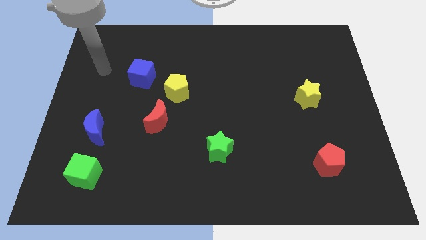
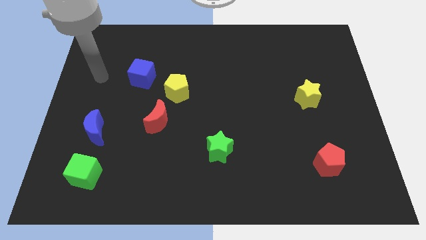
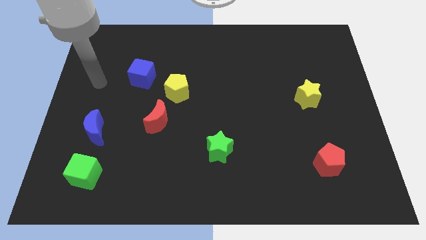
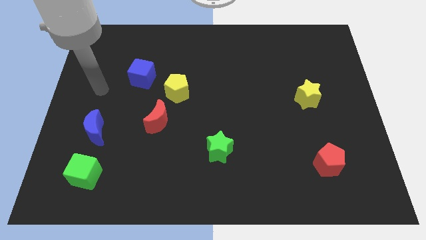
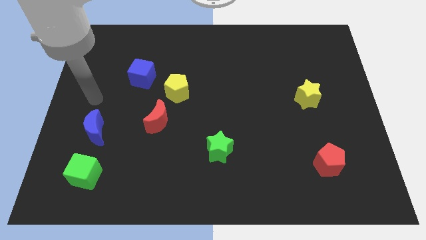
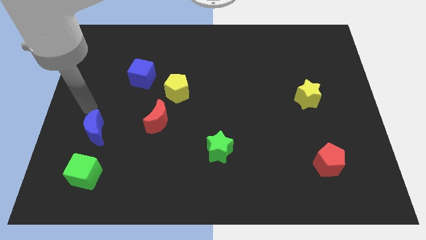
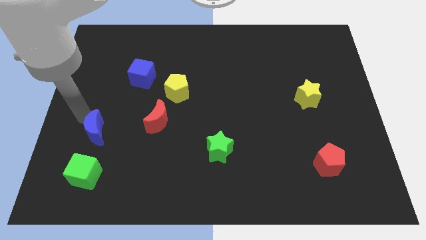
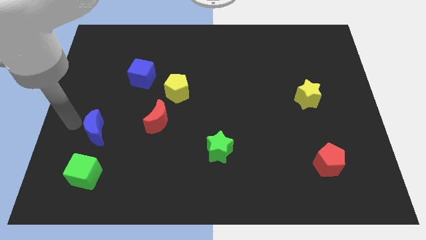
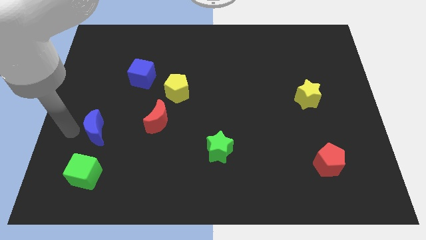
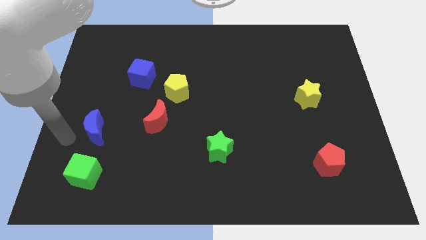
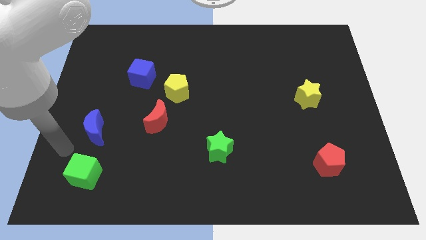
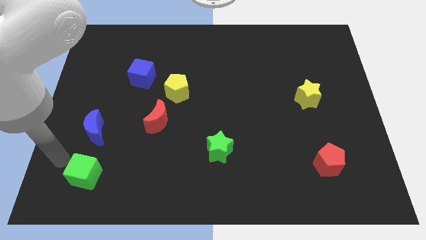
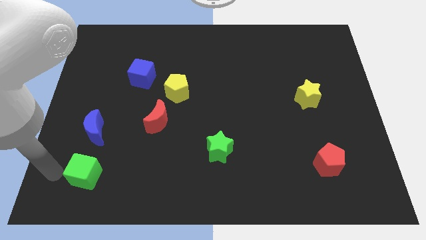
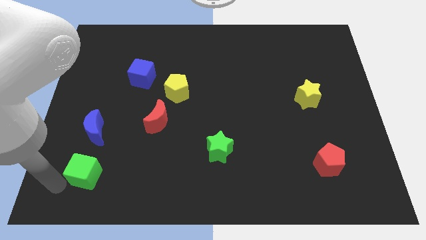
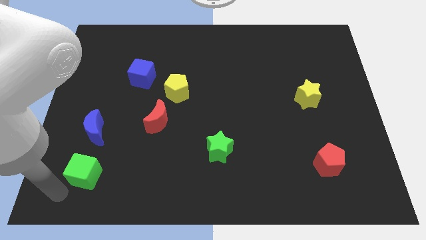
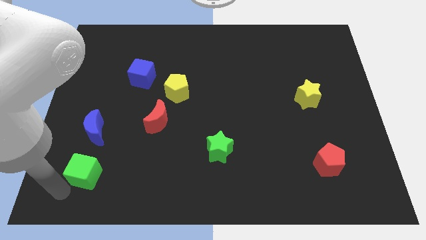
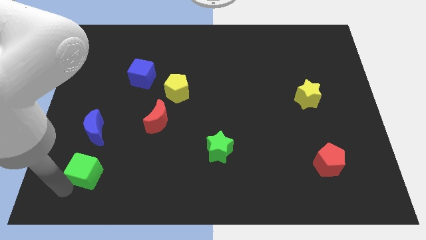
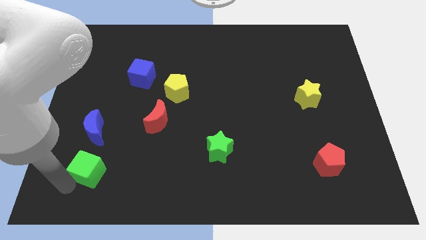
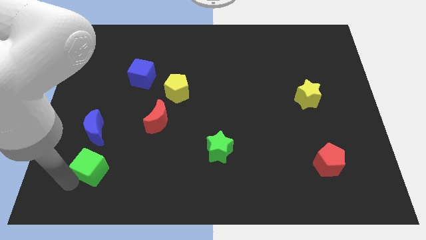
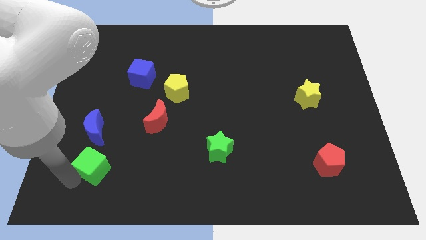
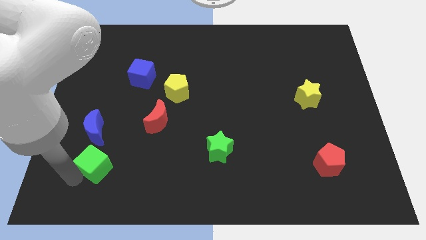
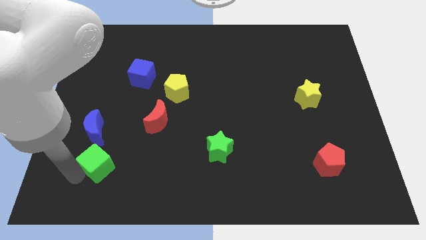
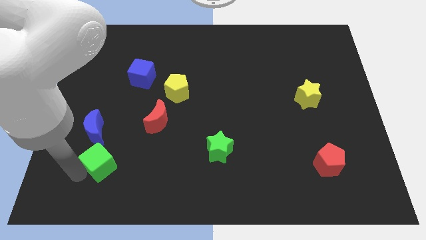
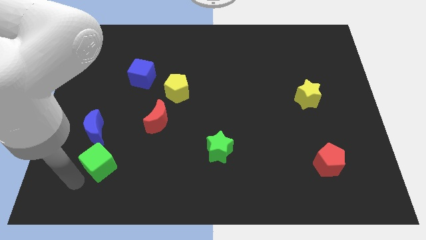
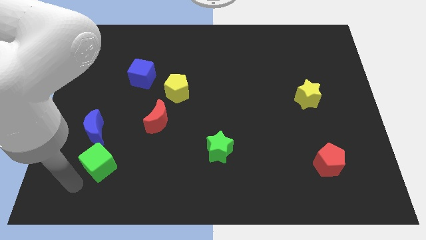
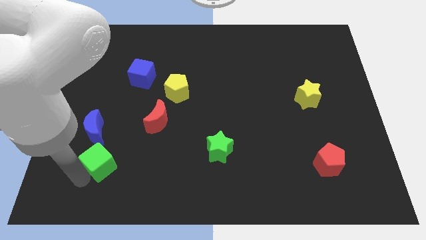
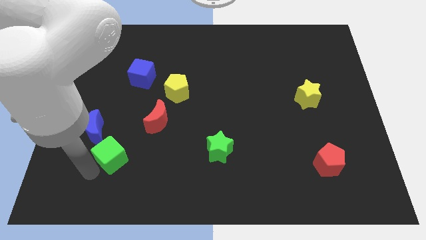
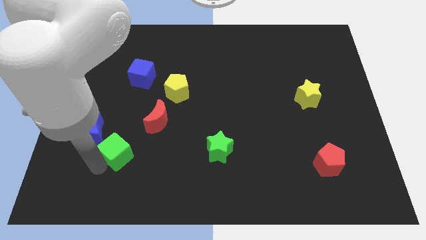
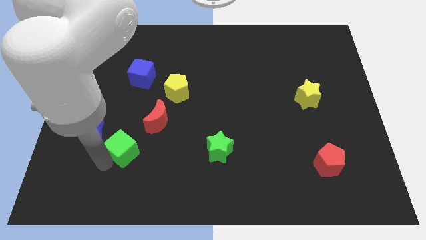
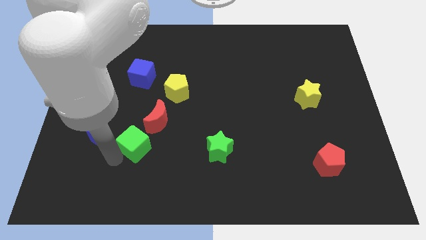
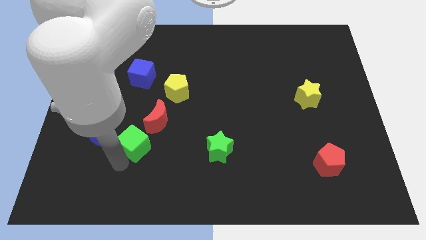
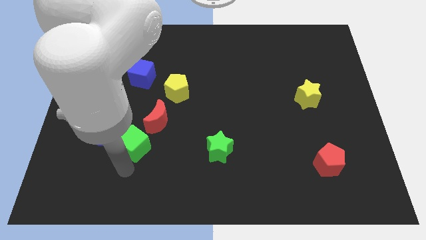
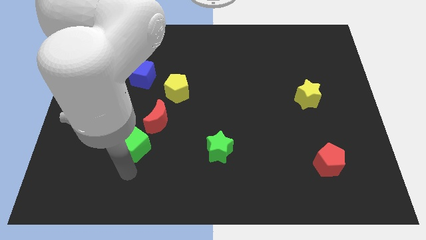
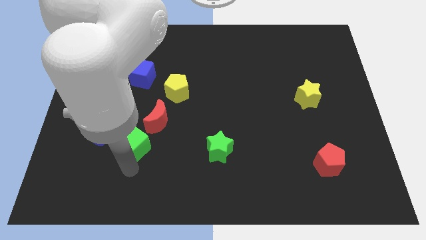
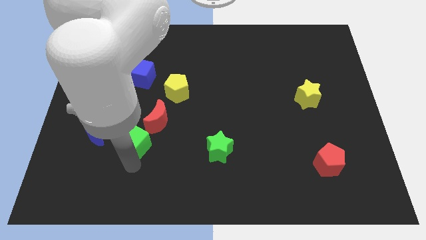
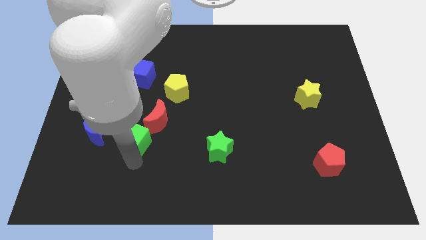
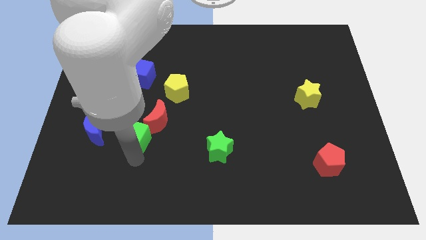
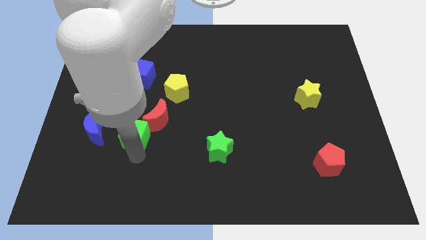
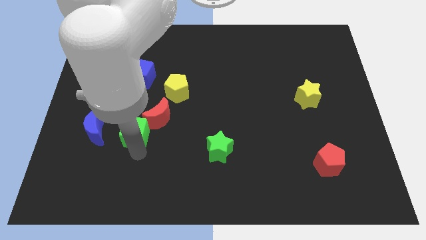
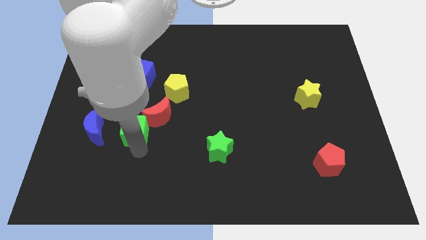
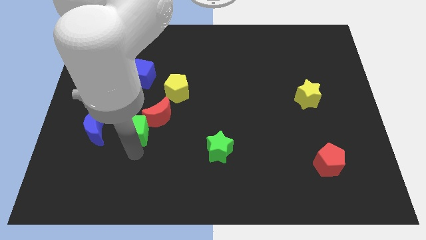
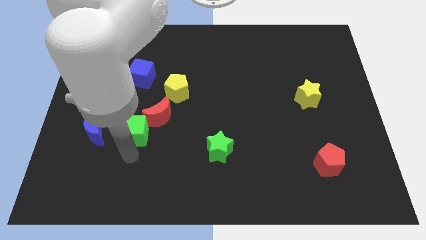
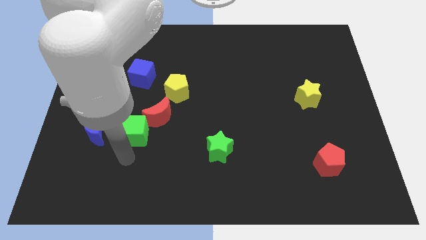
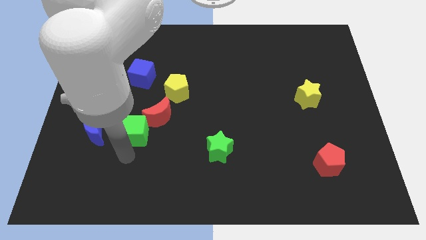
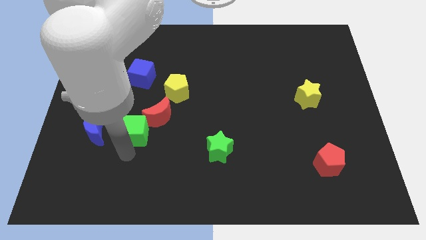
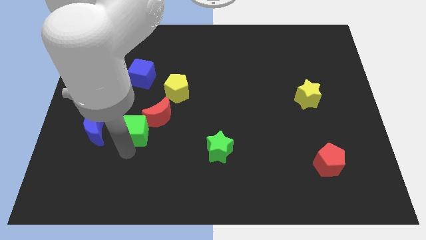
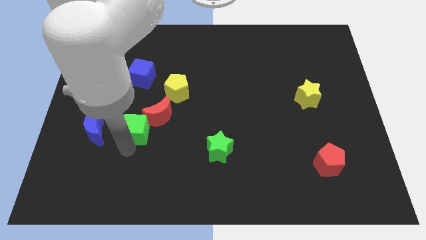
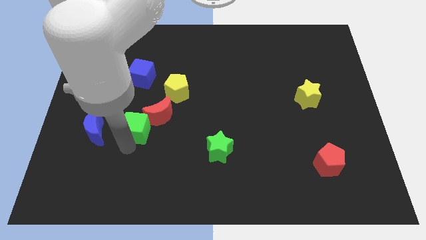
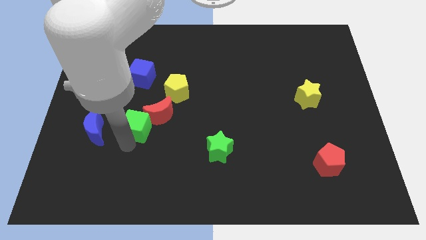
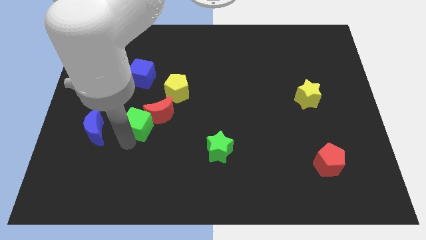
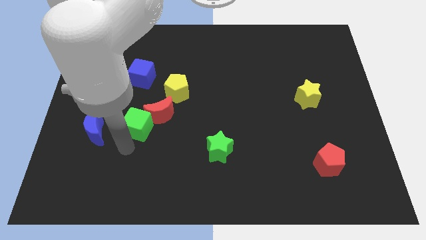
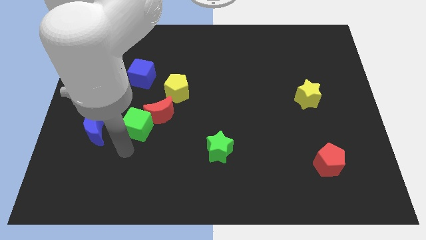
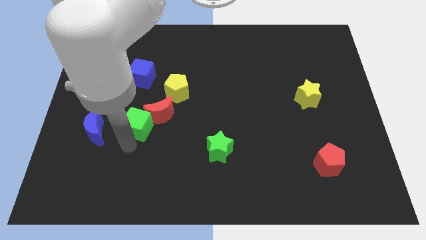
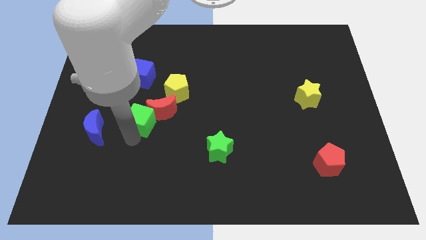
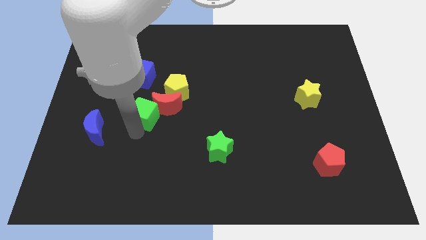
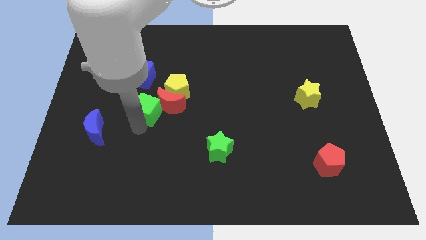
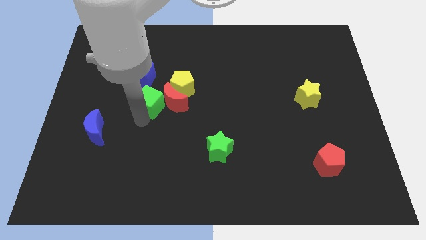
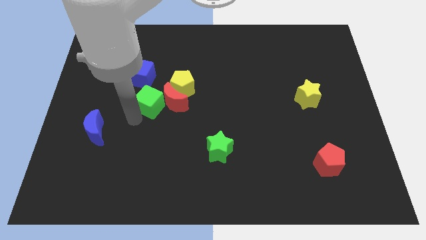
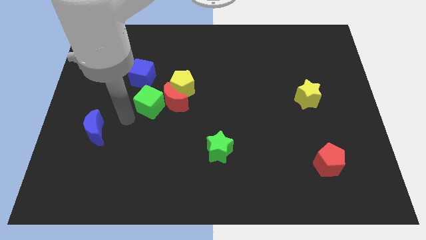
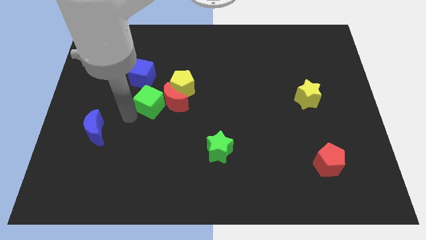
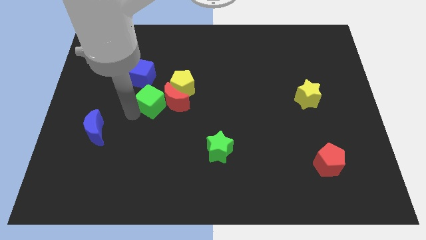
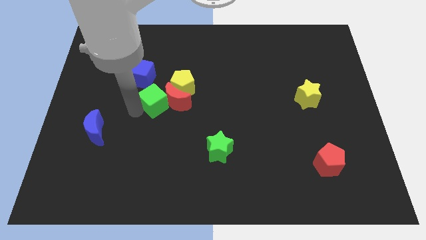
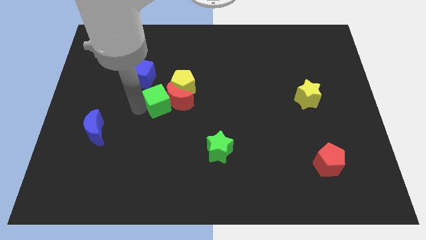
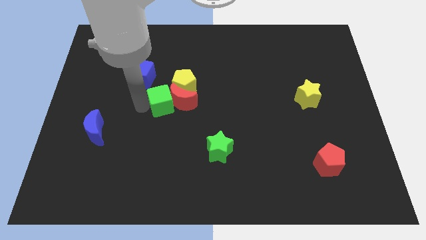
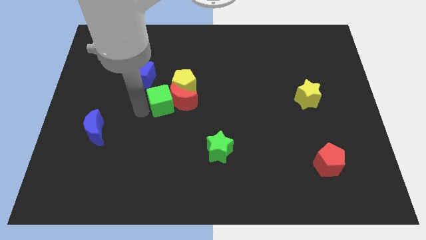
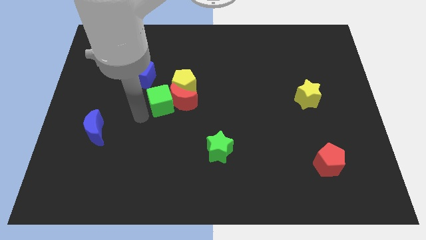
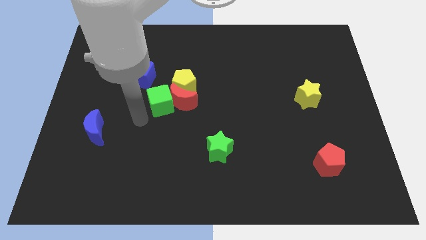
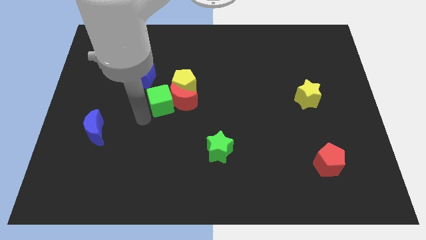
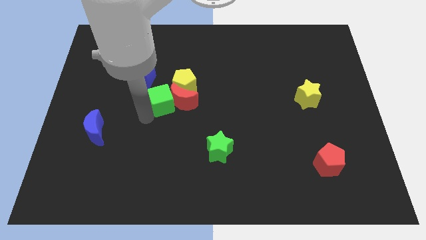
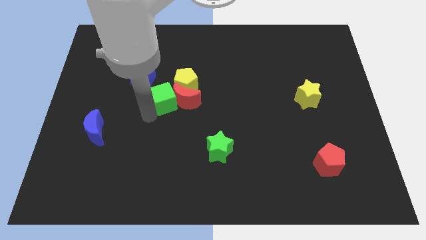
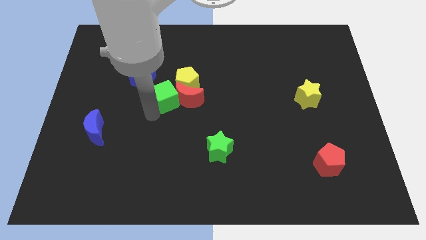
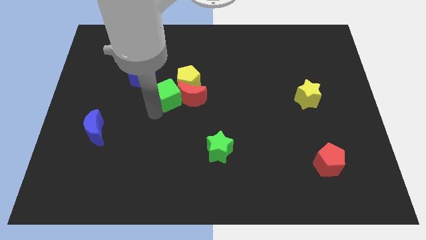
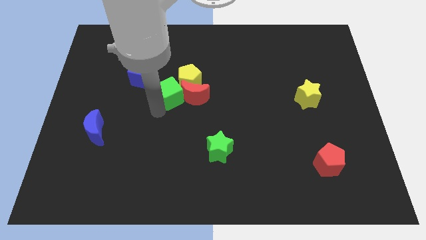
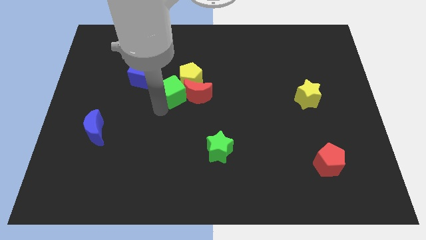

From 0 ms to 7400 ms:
put the green cube close to the yellow pentagon
